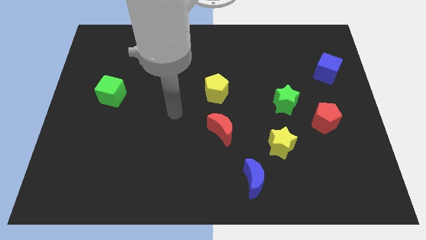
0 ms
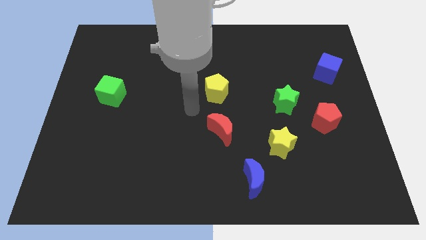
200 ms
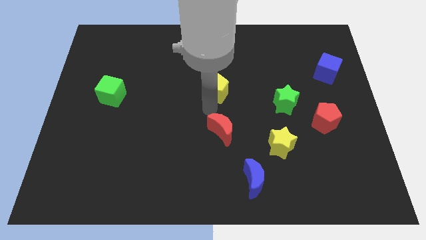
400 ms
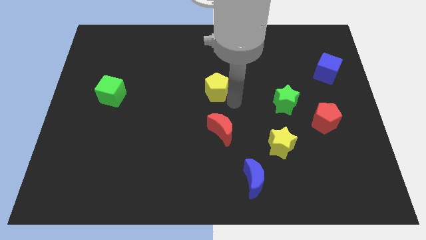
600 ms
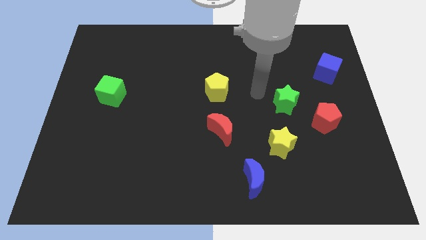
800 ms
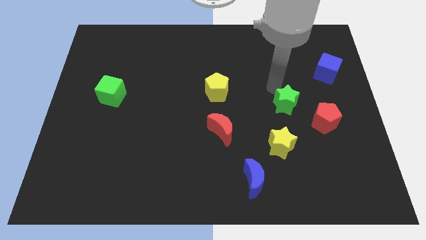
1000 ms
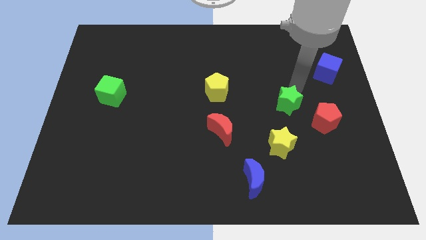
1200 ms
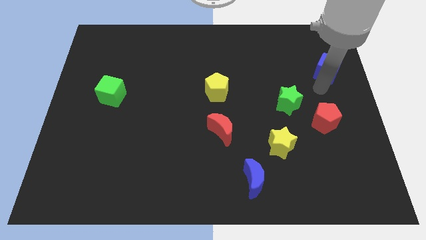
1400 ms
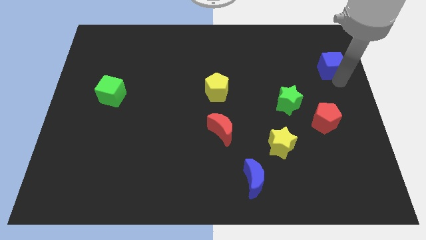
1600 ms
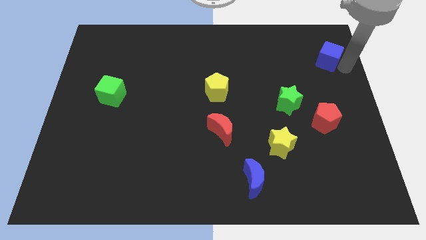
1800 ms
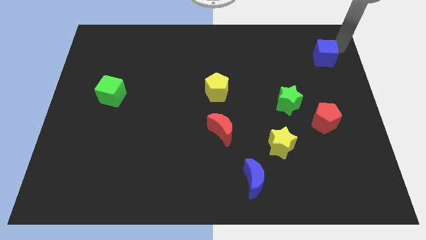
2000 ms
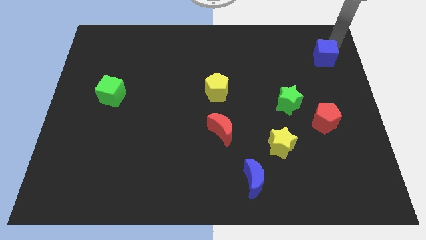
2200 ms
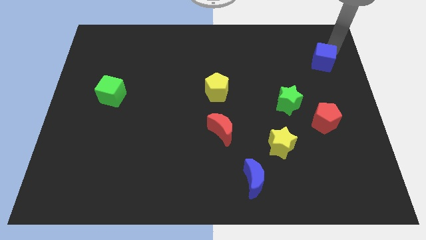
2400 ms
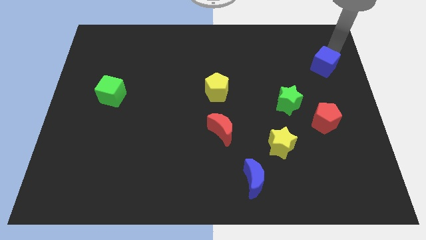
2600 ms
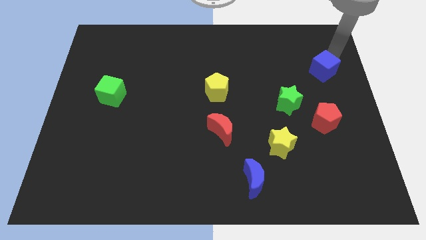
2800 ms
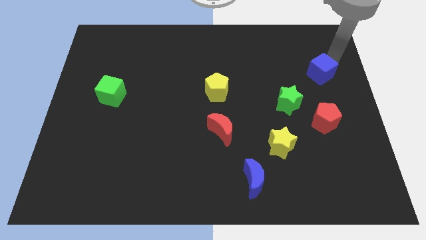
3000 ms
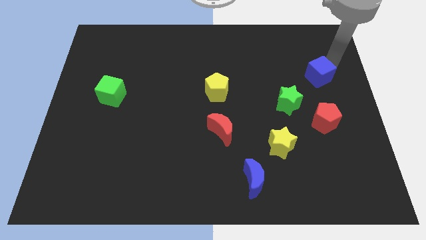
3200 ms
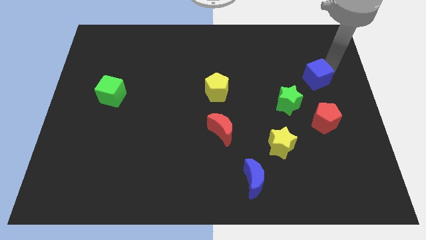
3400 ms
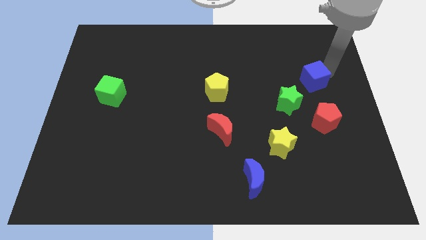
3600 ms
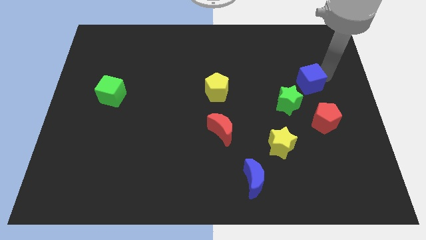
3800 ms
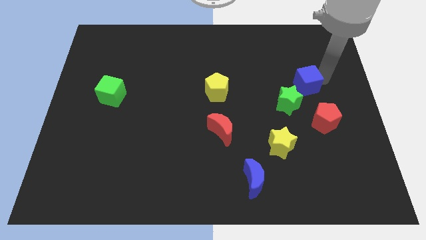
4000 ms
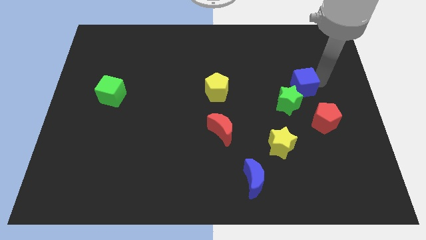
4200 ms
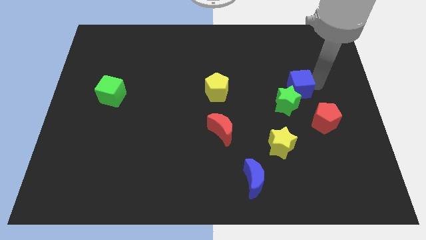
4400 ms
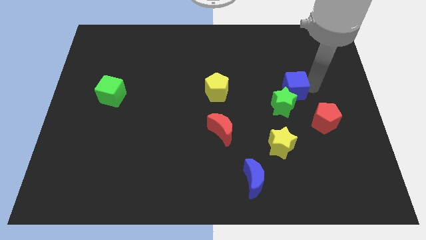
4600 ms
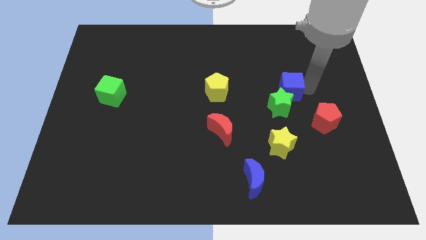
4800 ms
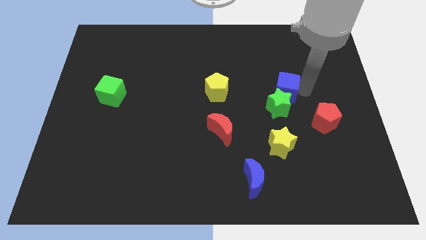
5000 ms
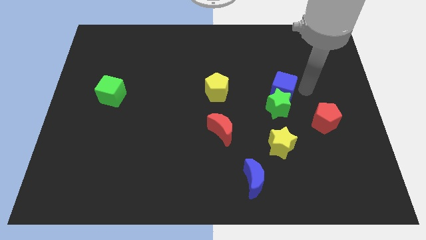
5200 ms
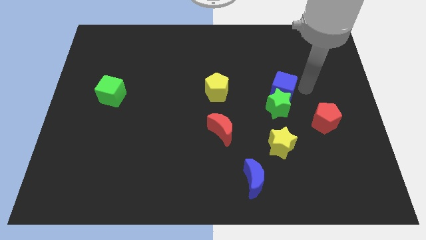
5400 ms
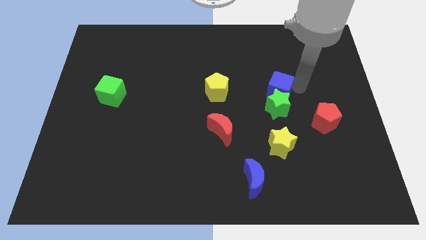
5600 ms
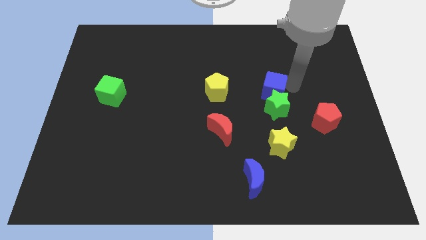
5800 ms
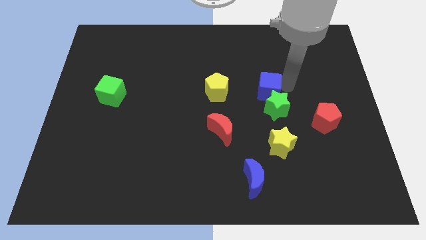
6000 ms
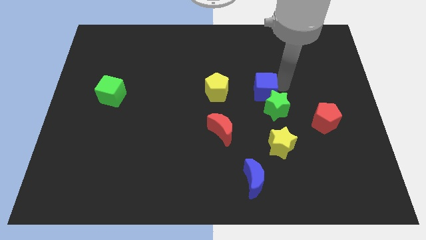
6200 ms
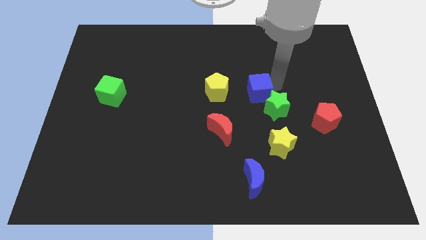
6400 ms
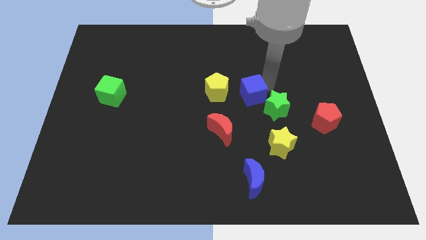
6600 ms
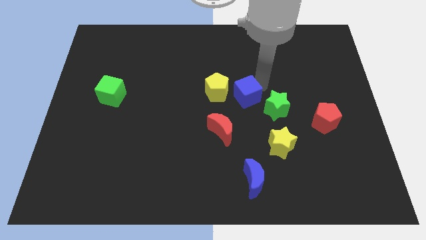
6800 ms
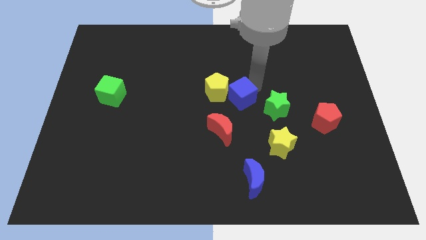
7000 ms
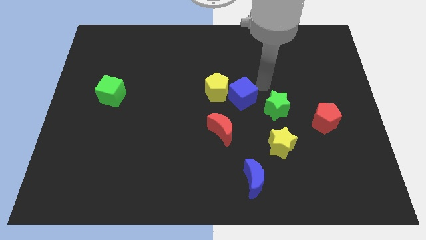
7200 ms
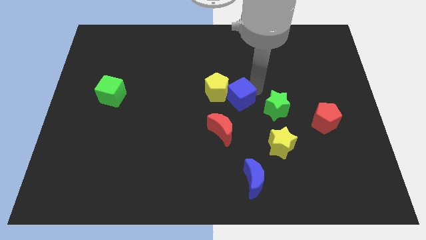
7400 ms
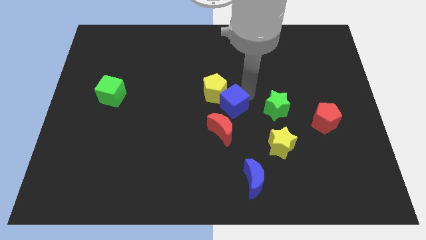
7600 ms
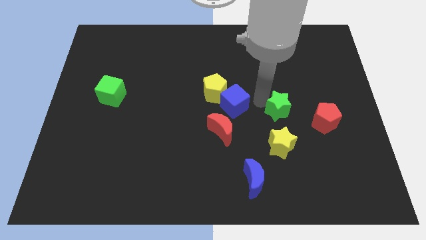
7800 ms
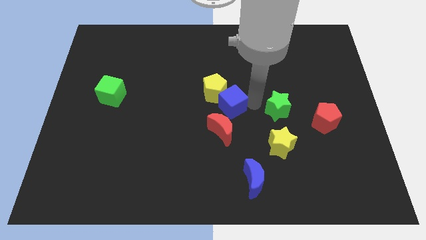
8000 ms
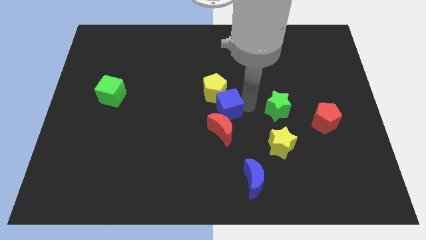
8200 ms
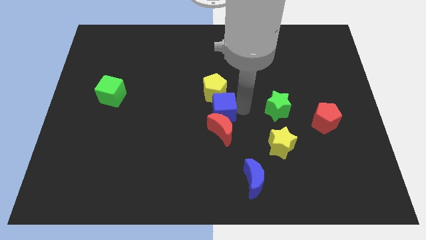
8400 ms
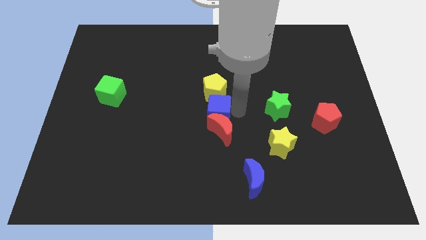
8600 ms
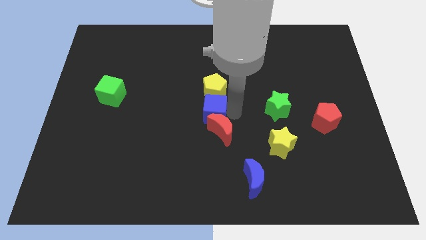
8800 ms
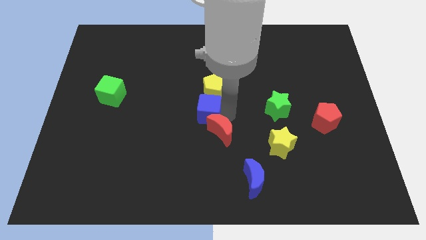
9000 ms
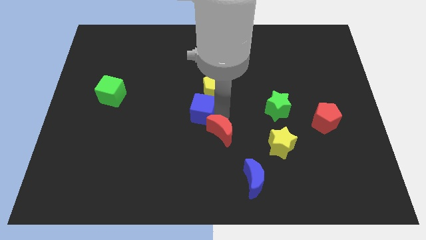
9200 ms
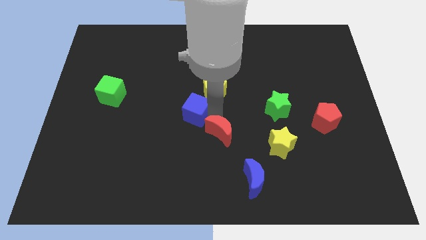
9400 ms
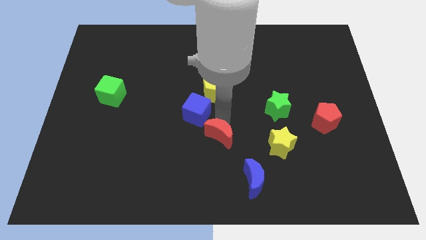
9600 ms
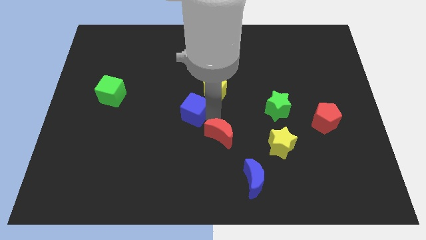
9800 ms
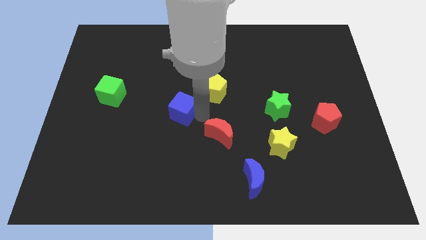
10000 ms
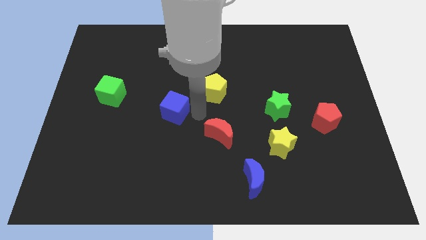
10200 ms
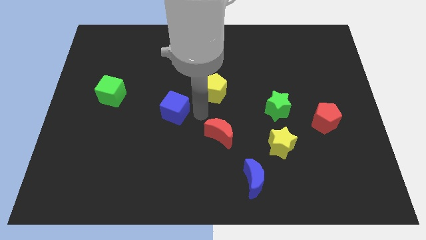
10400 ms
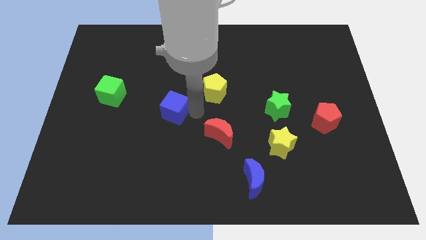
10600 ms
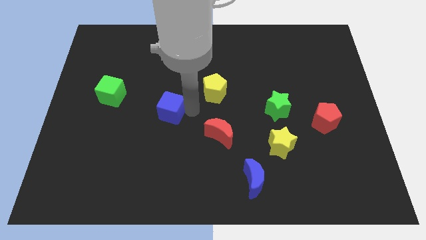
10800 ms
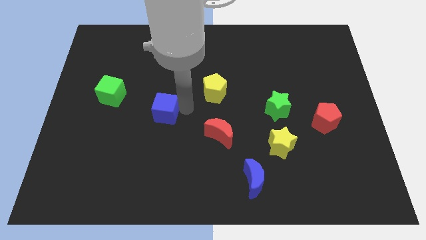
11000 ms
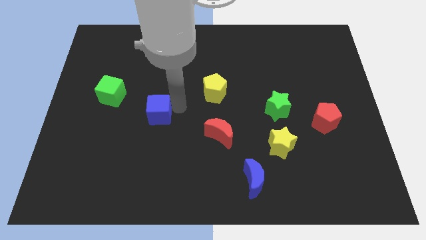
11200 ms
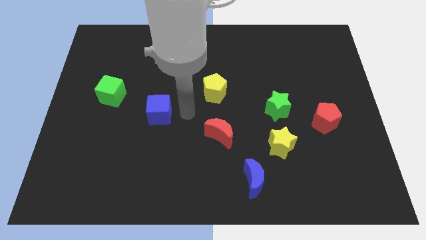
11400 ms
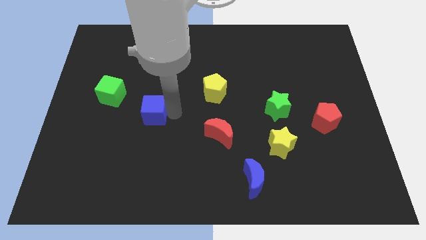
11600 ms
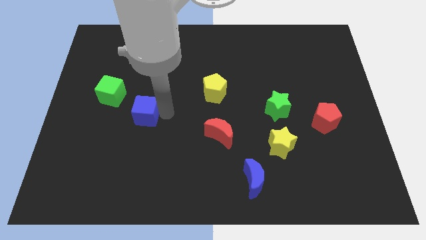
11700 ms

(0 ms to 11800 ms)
slide the blue cube to the bottom right of the green cube
